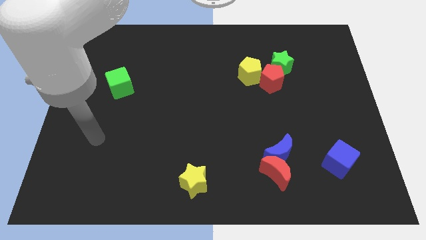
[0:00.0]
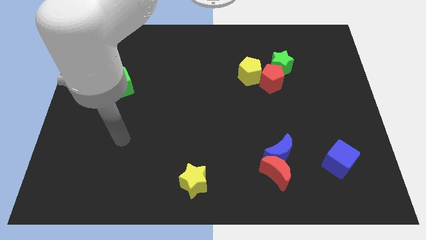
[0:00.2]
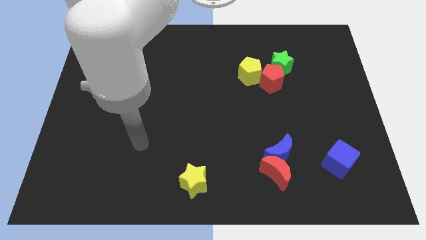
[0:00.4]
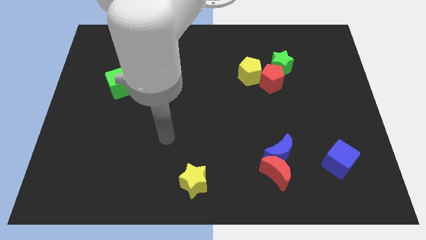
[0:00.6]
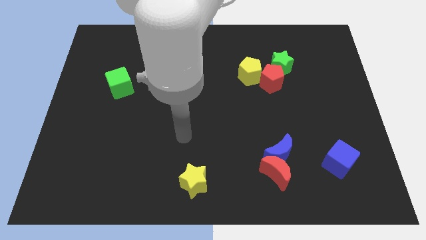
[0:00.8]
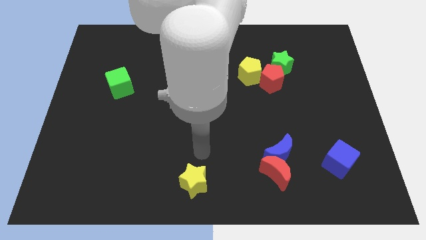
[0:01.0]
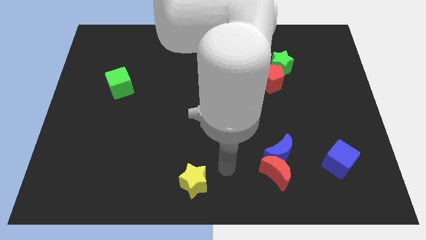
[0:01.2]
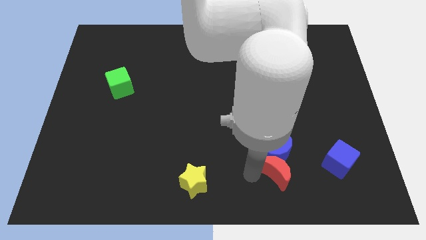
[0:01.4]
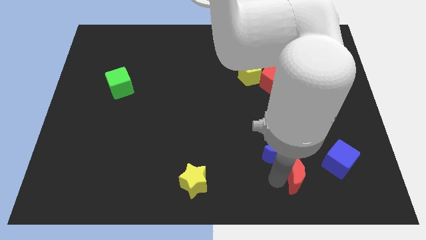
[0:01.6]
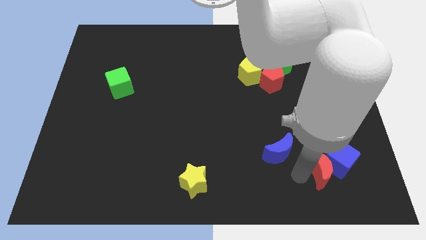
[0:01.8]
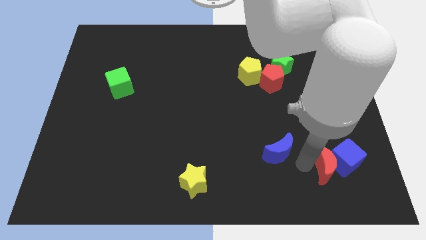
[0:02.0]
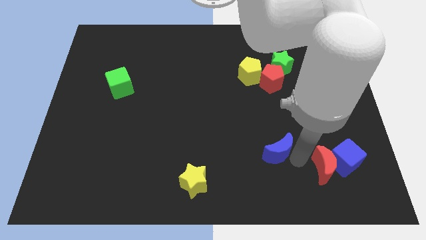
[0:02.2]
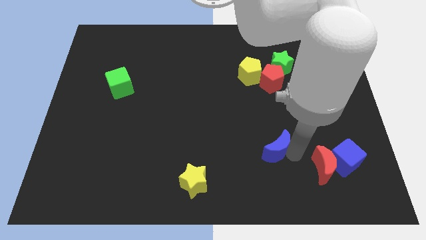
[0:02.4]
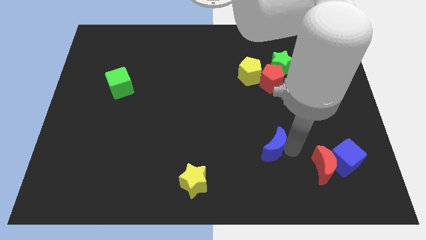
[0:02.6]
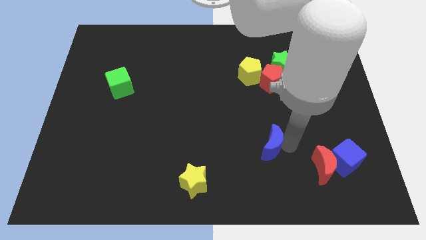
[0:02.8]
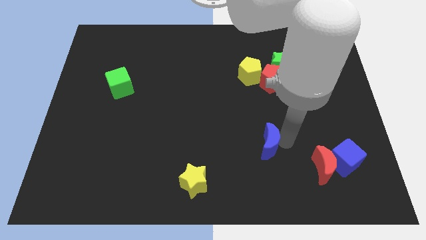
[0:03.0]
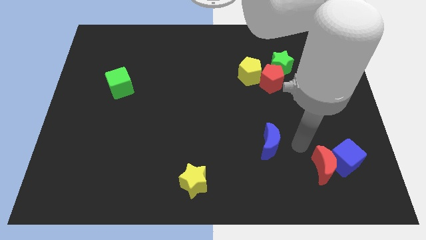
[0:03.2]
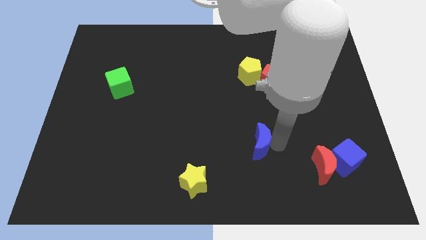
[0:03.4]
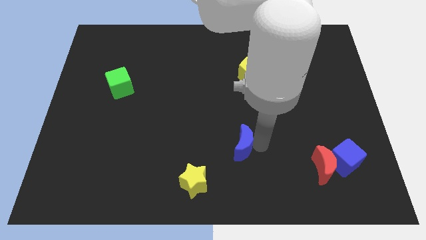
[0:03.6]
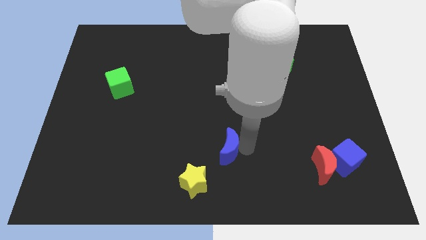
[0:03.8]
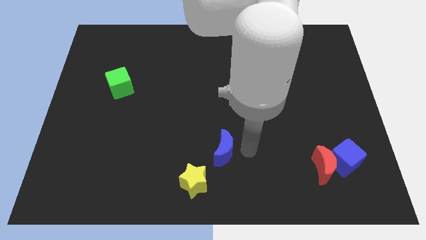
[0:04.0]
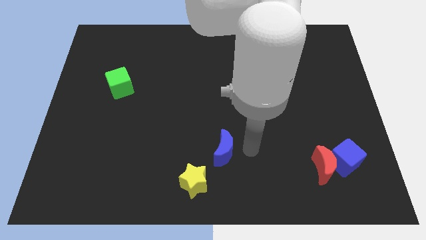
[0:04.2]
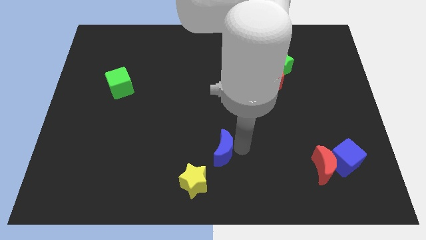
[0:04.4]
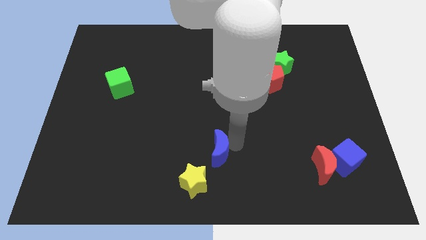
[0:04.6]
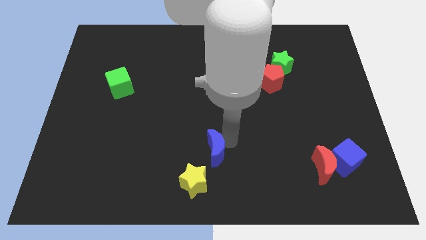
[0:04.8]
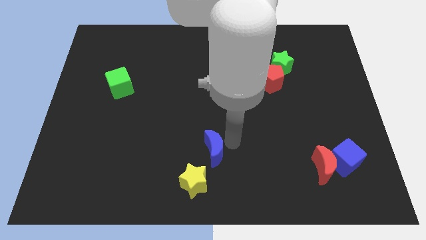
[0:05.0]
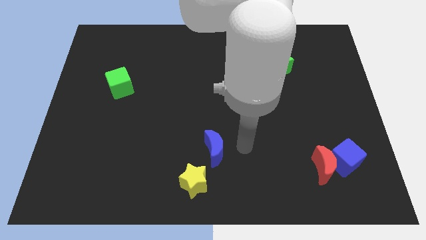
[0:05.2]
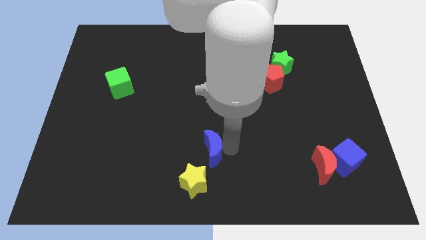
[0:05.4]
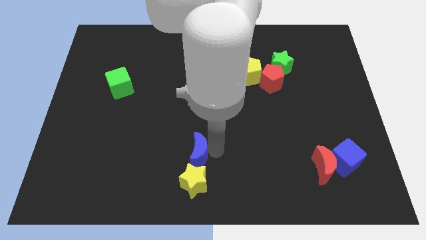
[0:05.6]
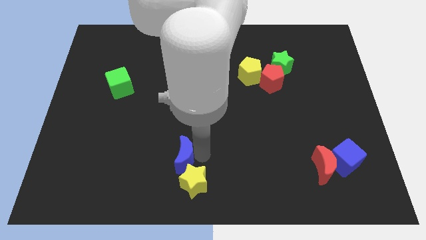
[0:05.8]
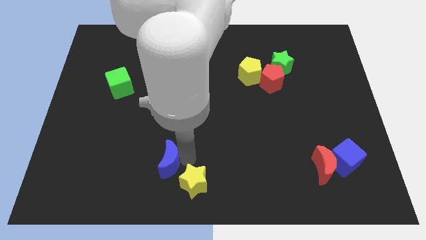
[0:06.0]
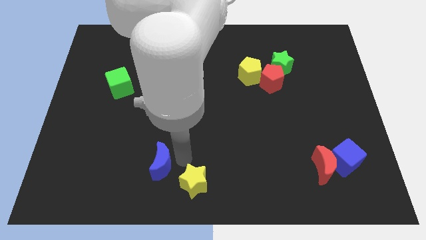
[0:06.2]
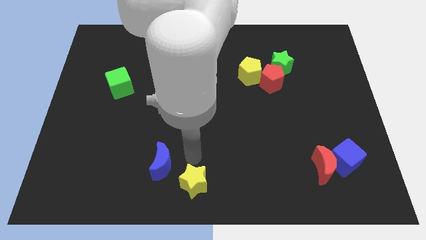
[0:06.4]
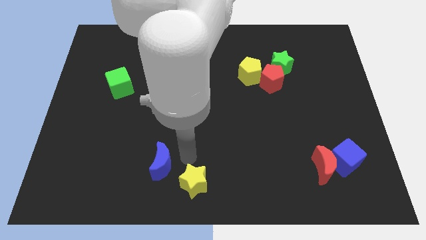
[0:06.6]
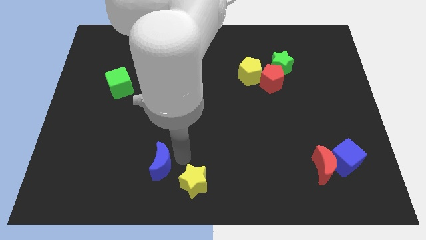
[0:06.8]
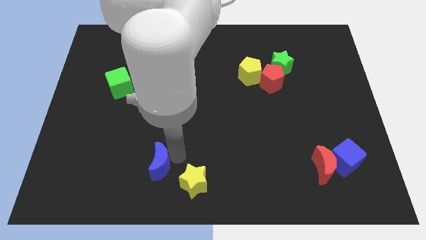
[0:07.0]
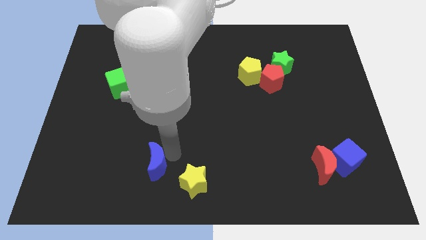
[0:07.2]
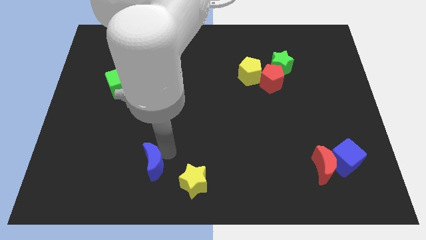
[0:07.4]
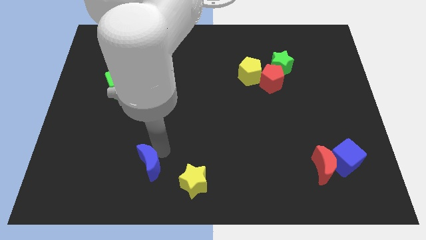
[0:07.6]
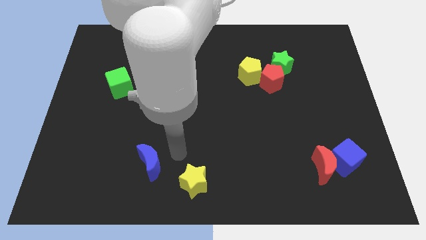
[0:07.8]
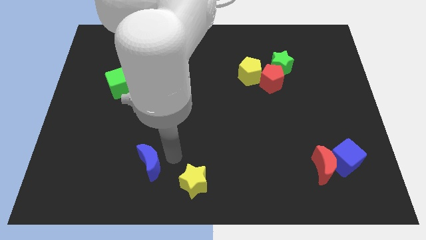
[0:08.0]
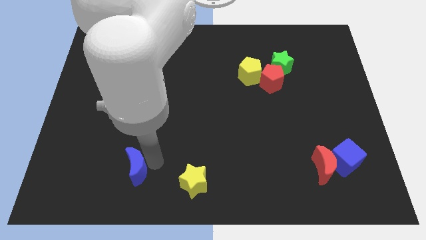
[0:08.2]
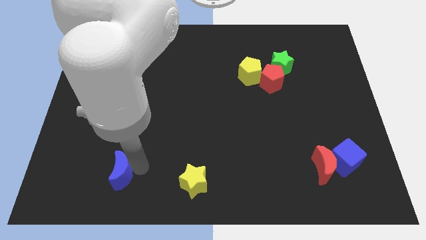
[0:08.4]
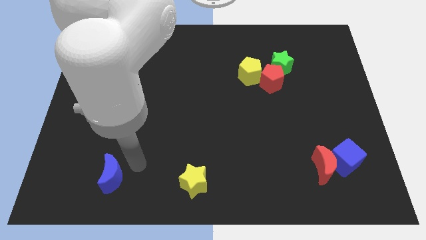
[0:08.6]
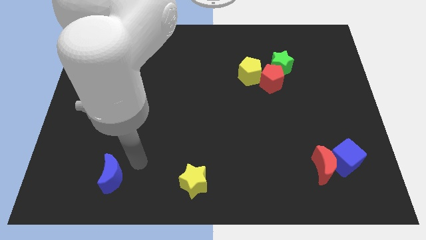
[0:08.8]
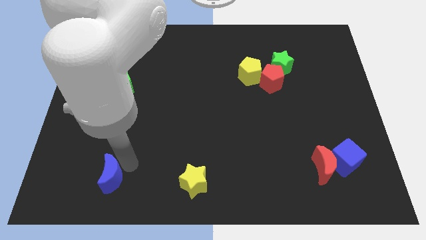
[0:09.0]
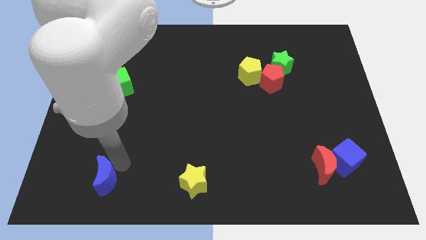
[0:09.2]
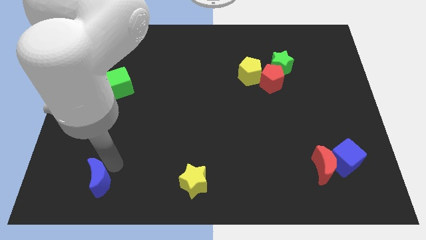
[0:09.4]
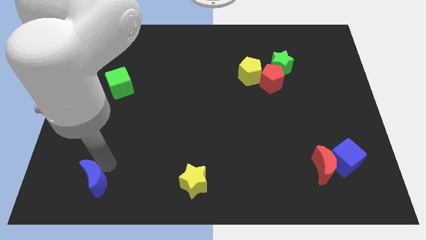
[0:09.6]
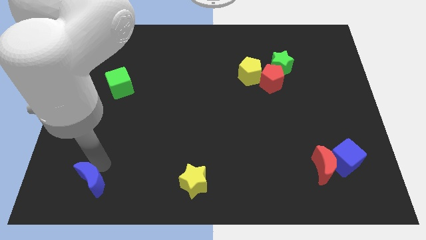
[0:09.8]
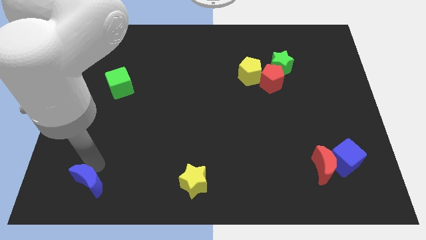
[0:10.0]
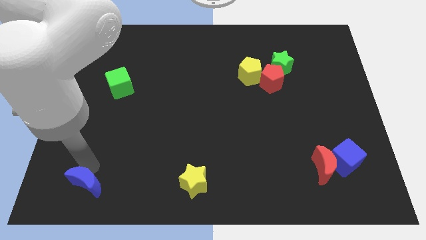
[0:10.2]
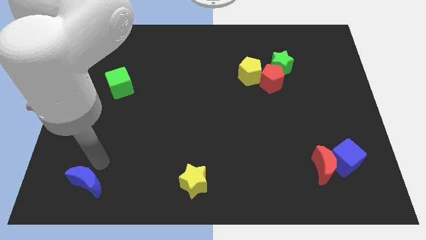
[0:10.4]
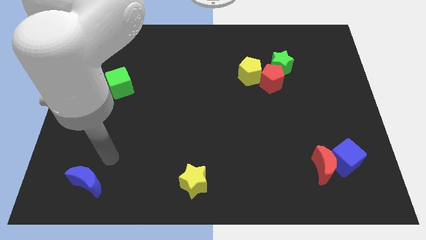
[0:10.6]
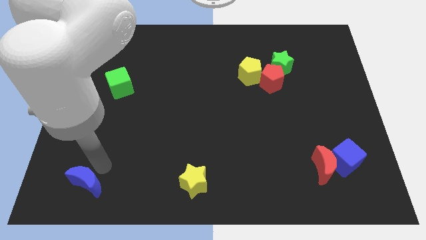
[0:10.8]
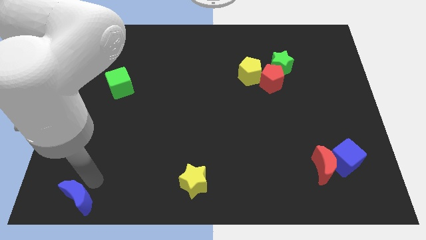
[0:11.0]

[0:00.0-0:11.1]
slide the blue moon to the bottom left of the board

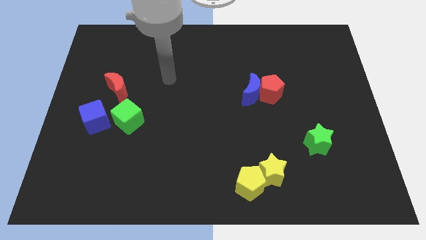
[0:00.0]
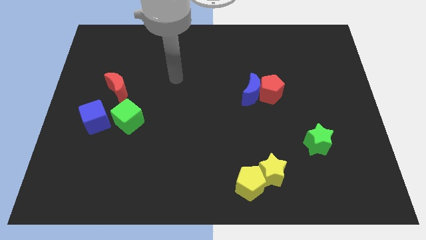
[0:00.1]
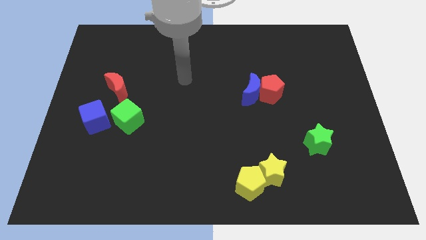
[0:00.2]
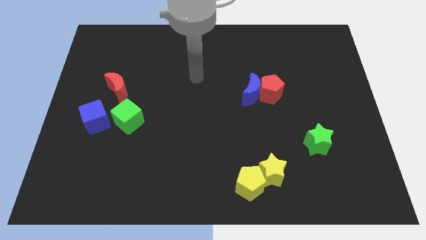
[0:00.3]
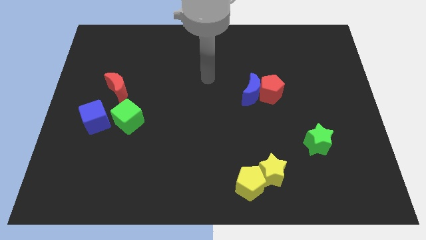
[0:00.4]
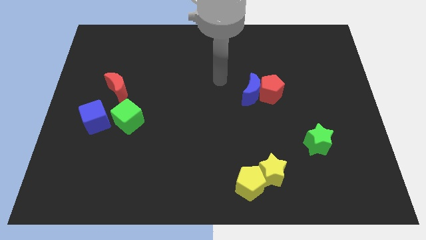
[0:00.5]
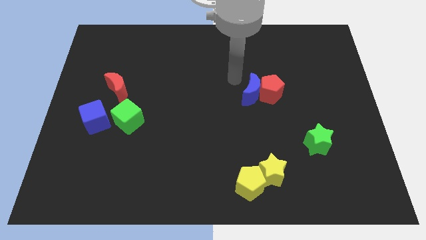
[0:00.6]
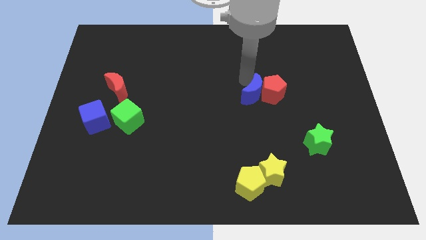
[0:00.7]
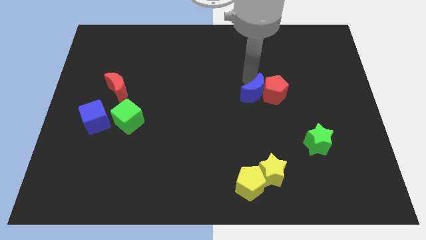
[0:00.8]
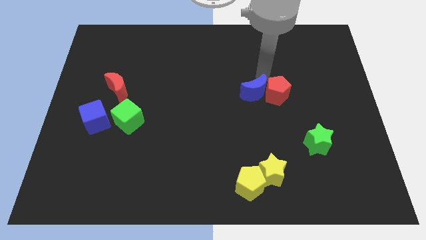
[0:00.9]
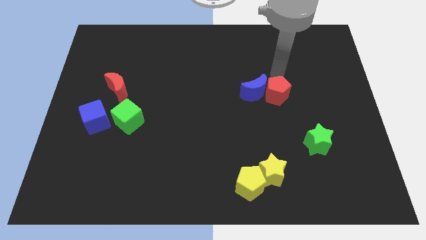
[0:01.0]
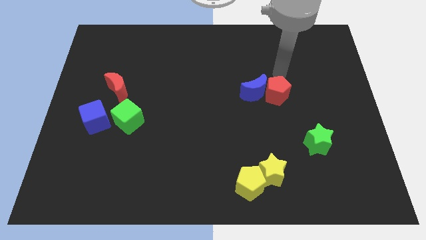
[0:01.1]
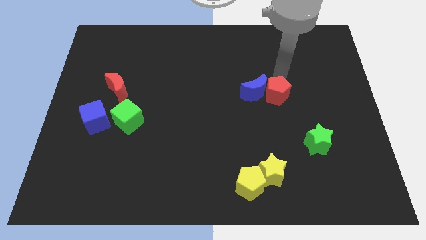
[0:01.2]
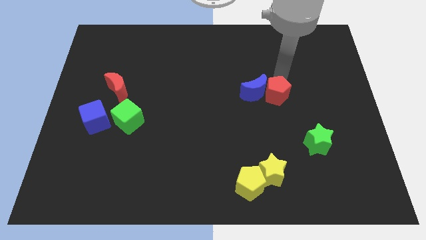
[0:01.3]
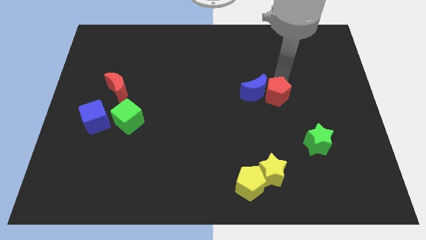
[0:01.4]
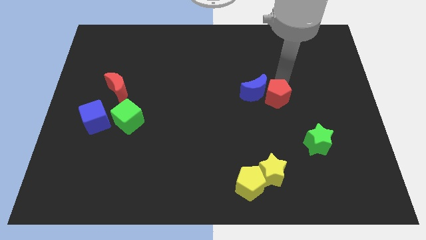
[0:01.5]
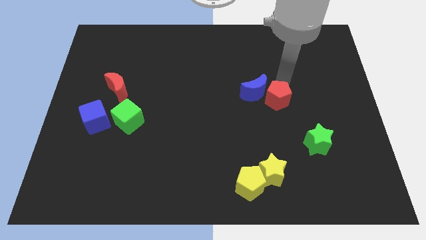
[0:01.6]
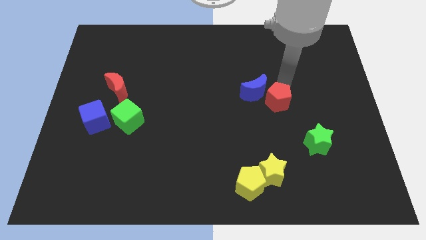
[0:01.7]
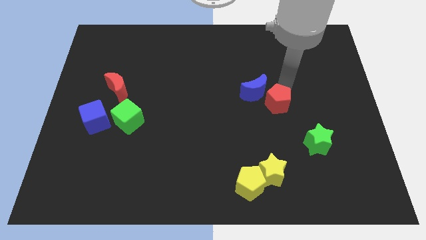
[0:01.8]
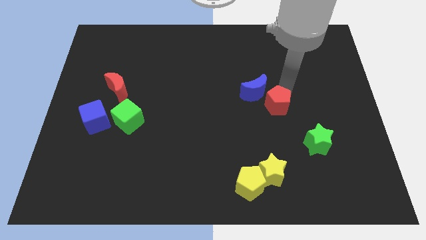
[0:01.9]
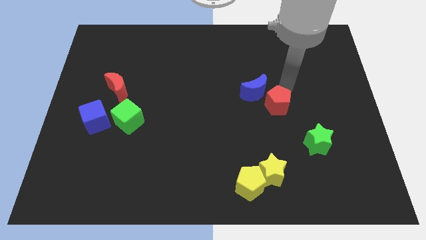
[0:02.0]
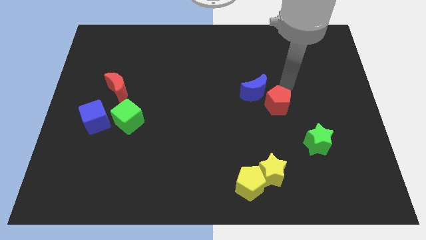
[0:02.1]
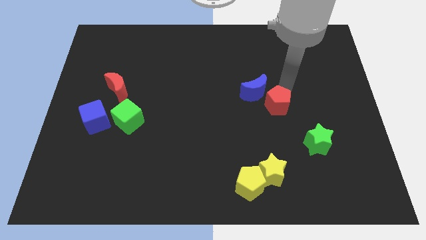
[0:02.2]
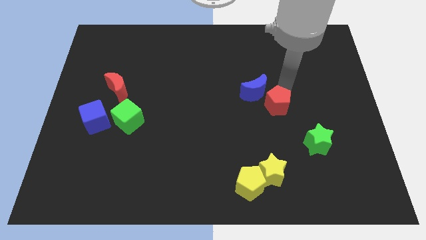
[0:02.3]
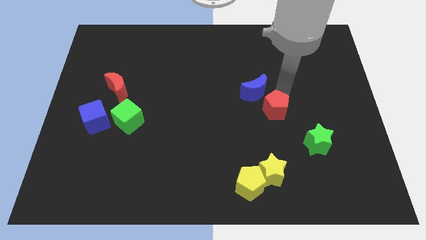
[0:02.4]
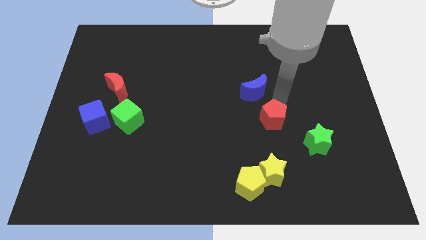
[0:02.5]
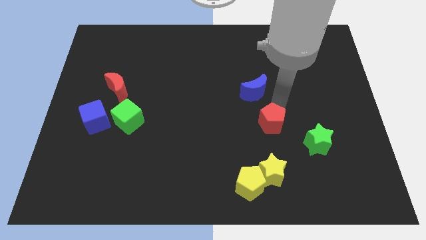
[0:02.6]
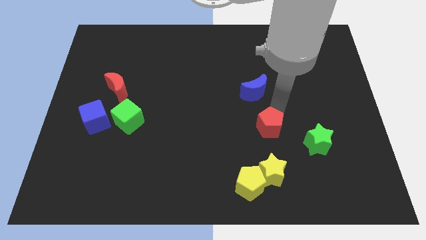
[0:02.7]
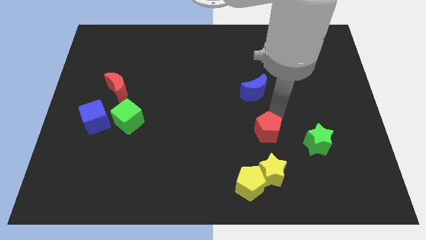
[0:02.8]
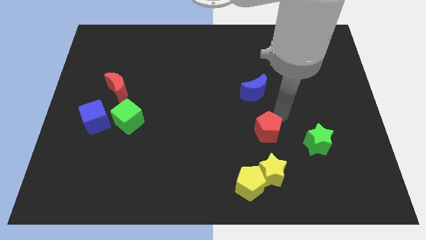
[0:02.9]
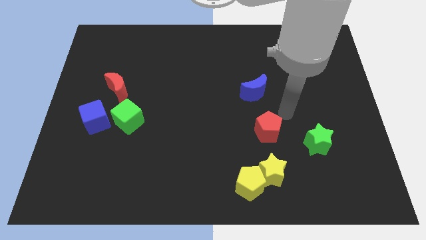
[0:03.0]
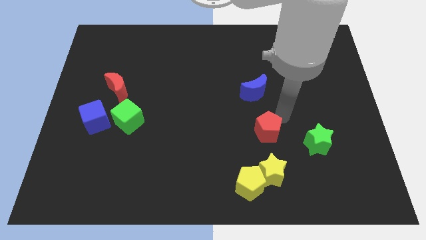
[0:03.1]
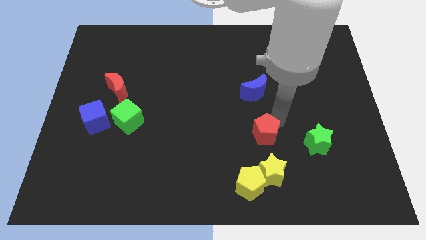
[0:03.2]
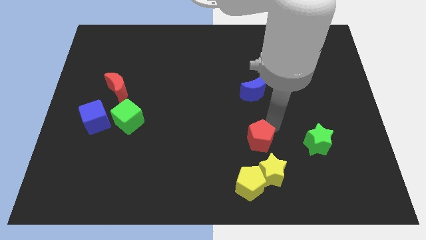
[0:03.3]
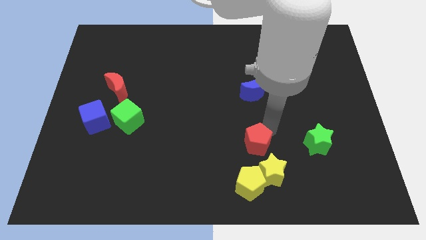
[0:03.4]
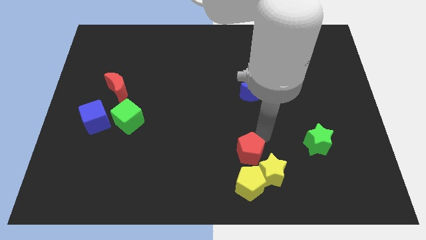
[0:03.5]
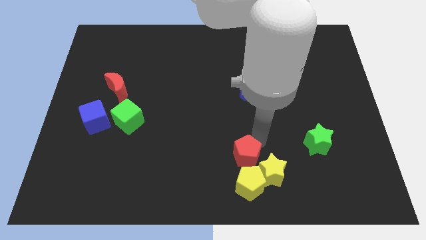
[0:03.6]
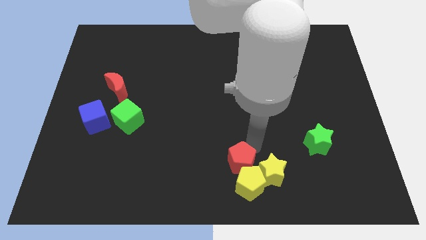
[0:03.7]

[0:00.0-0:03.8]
move the red pentagon to the bottom side
